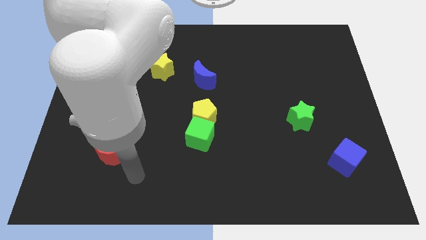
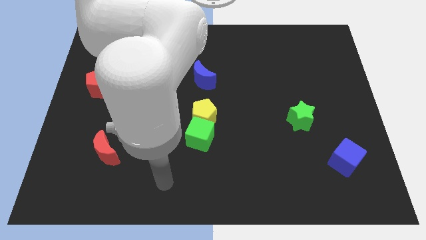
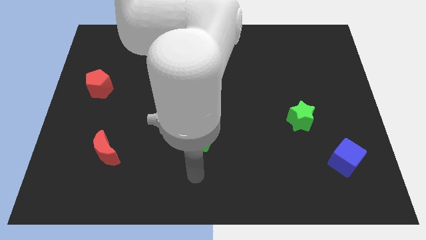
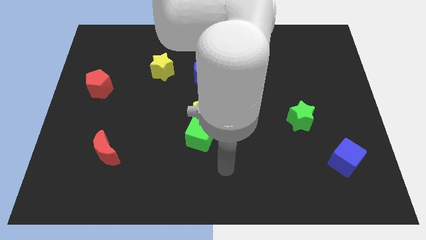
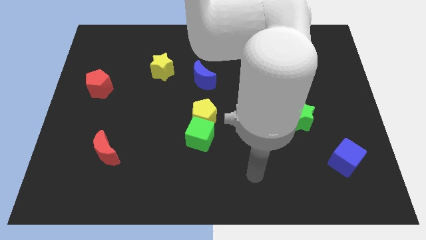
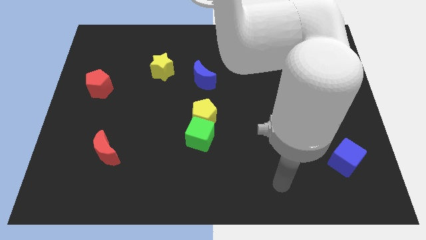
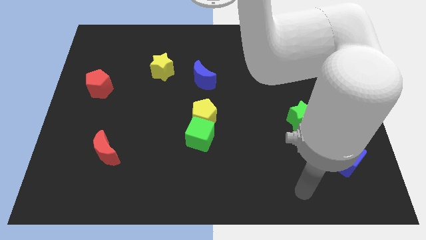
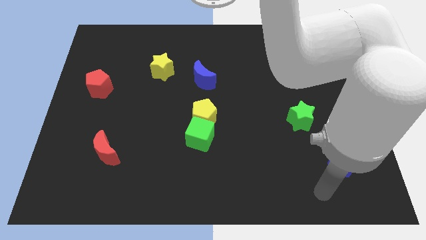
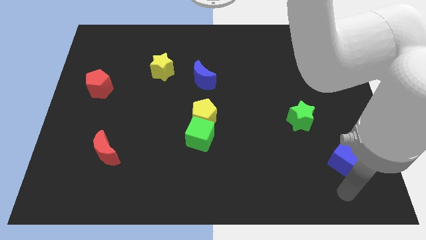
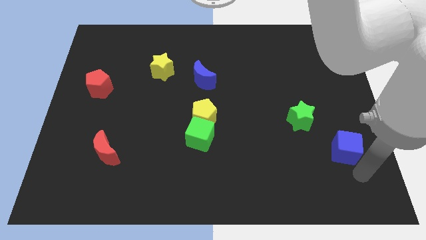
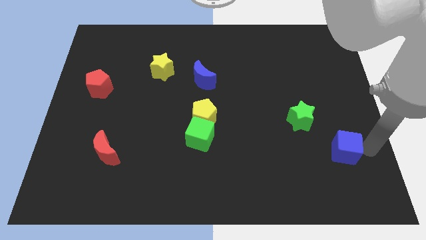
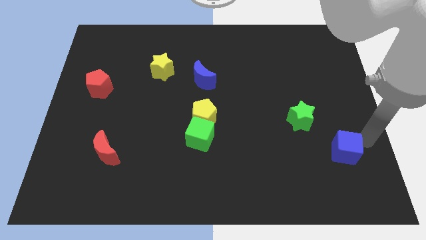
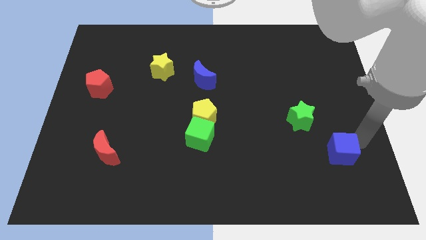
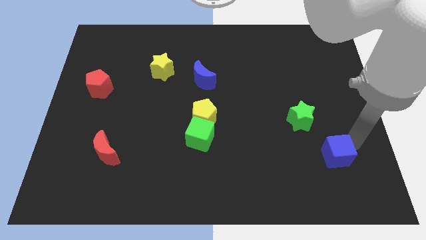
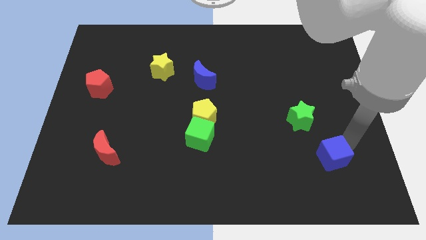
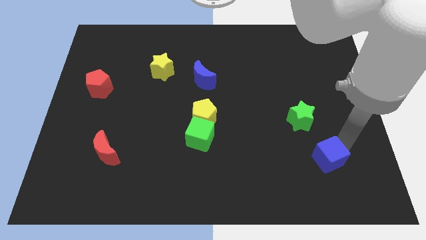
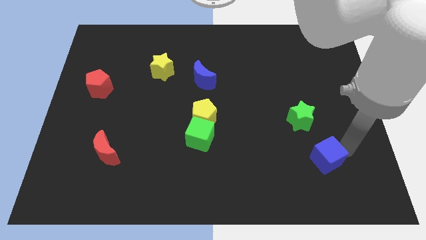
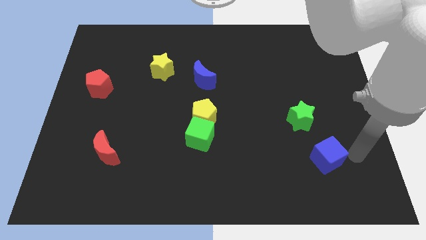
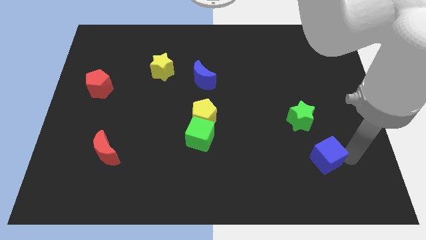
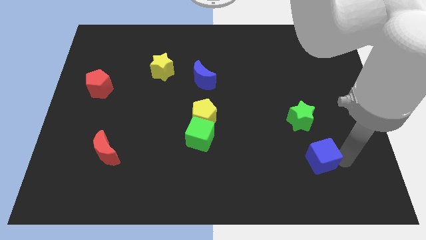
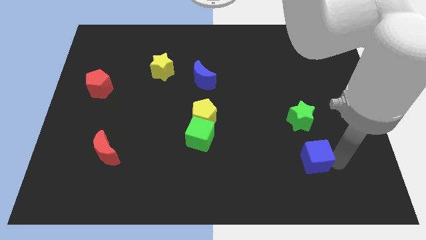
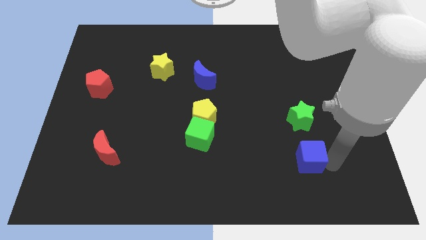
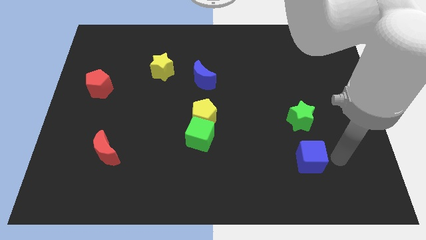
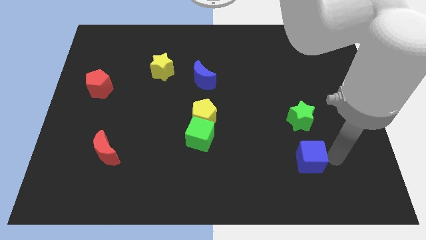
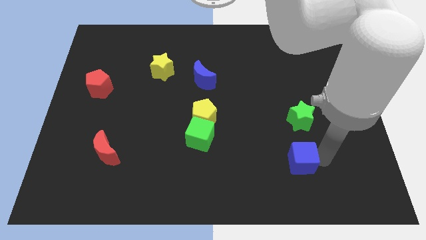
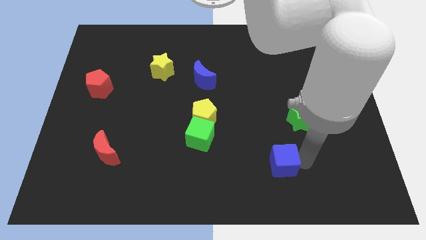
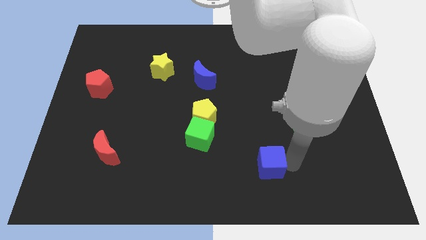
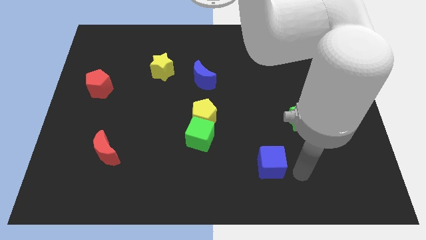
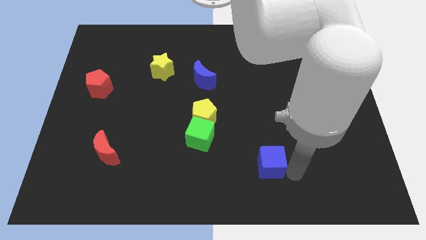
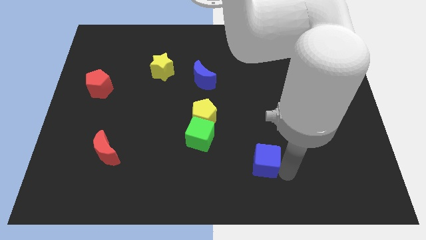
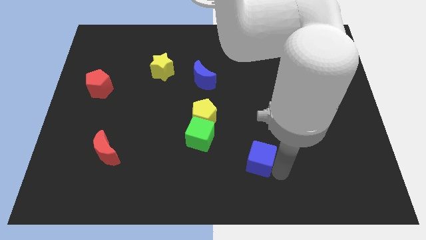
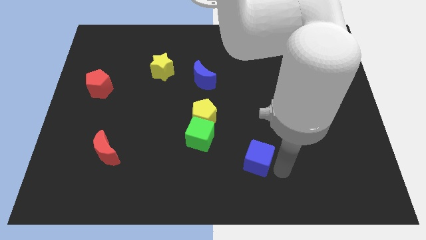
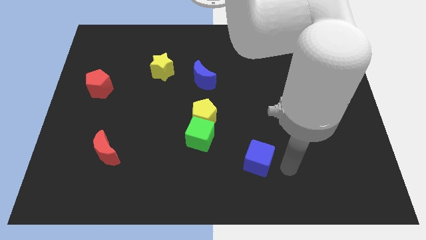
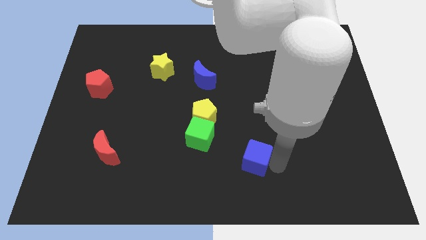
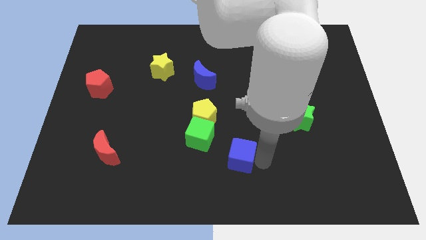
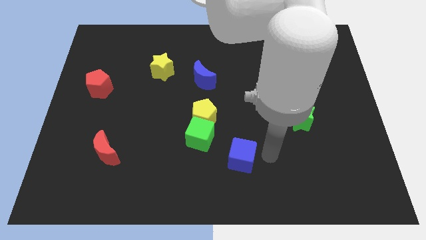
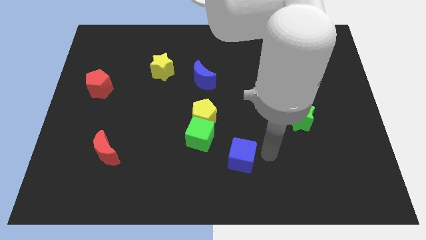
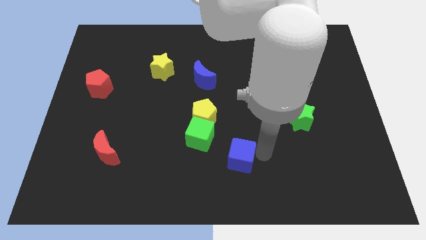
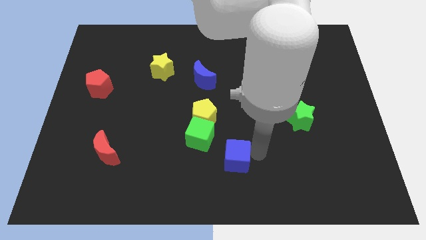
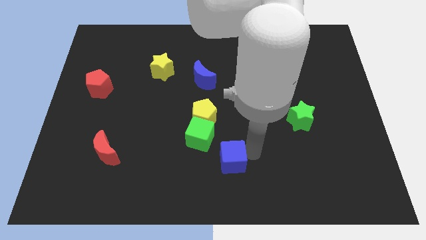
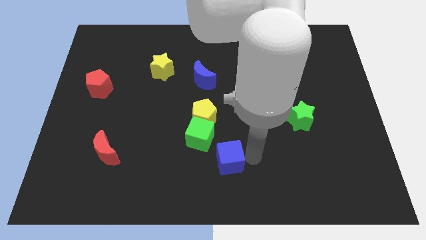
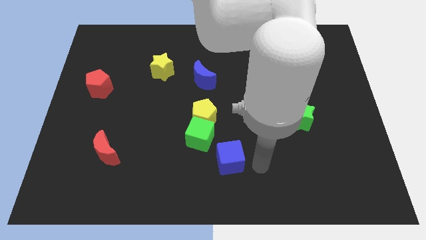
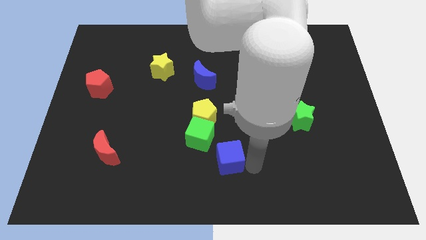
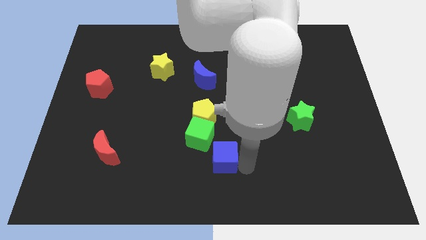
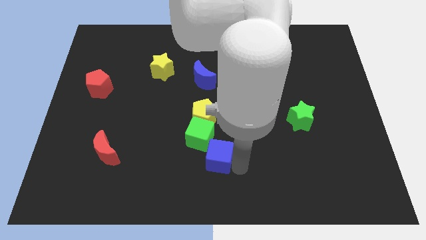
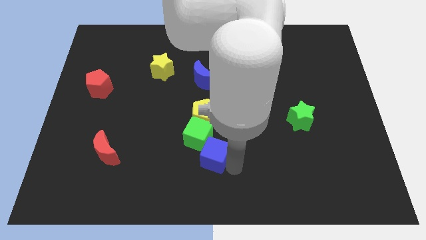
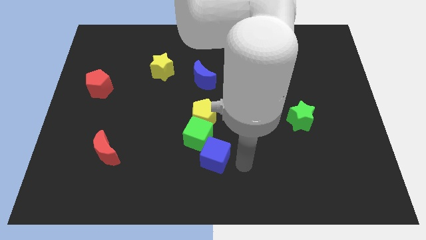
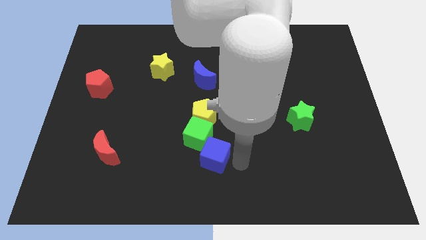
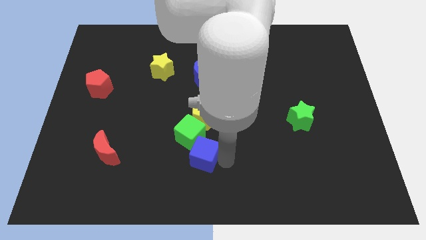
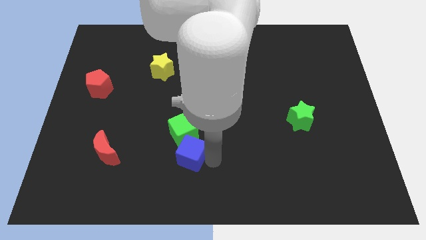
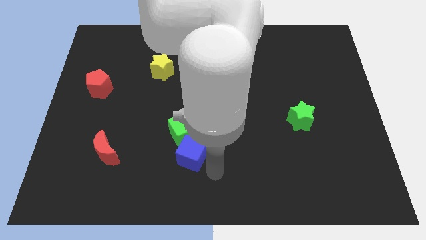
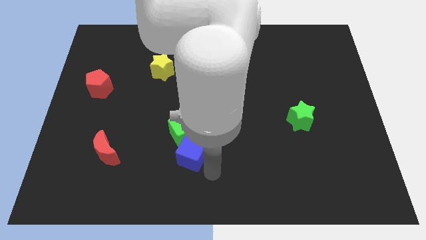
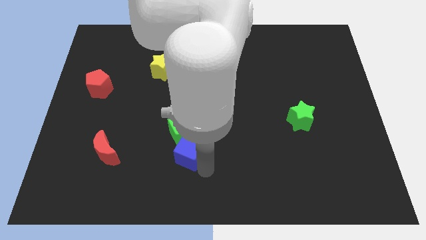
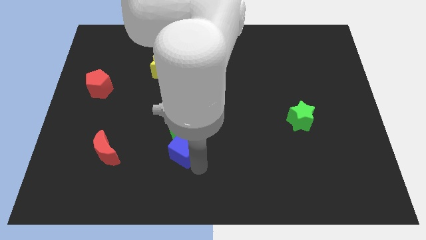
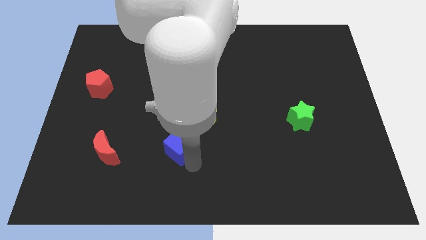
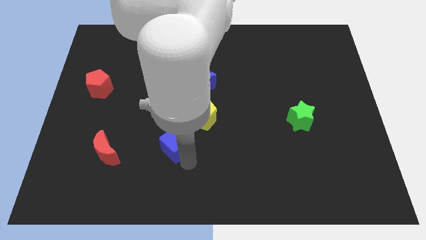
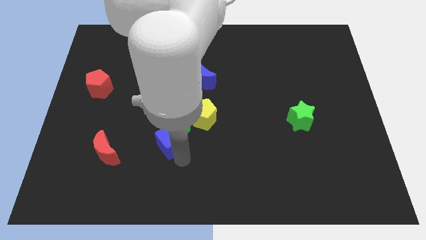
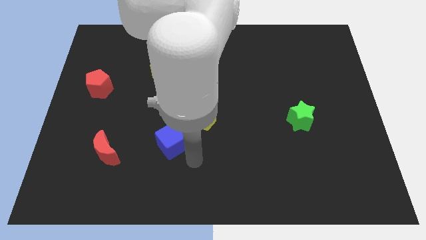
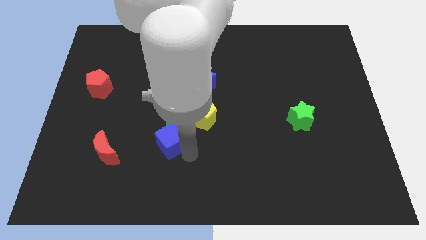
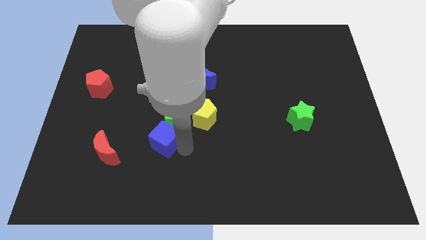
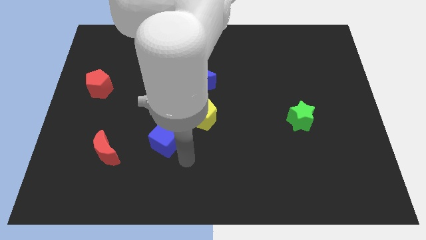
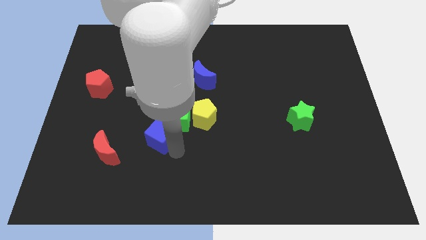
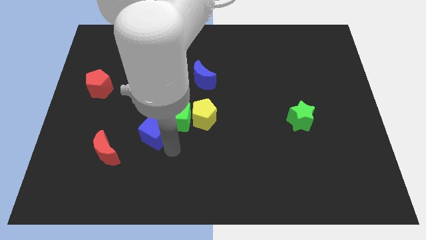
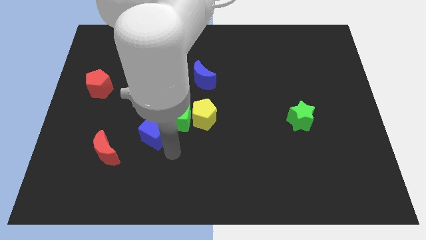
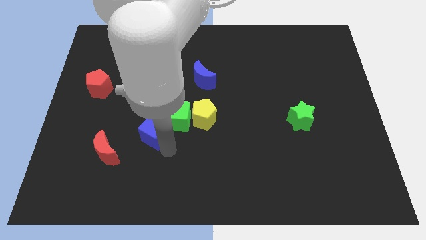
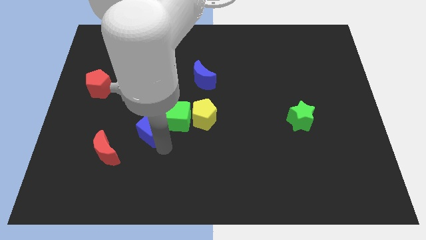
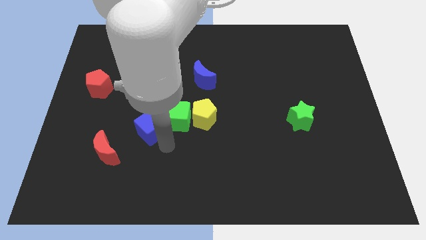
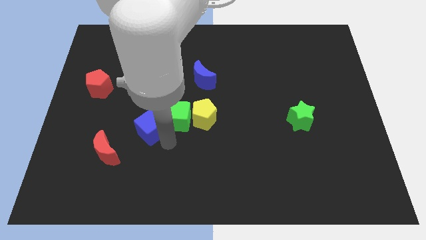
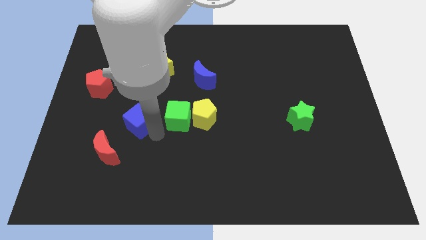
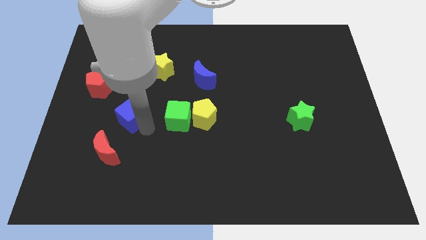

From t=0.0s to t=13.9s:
put the blue cube to the bottom right of the red pentagon
